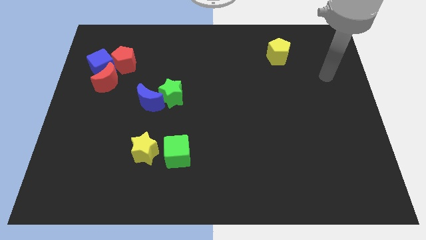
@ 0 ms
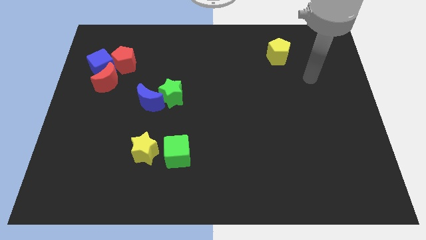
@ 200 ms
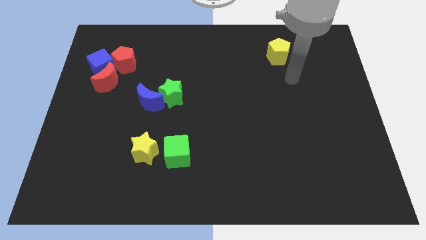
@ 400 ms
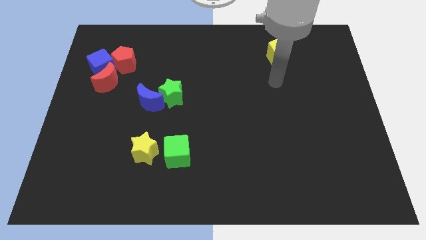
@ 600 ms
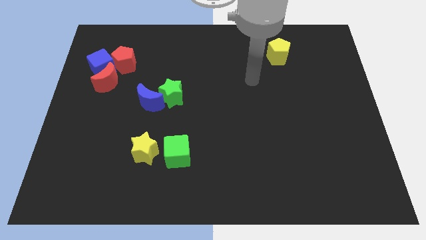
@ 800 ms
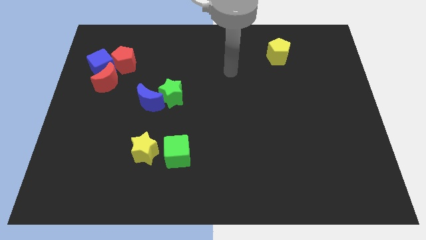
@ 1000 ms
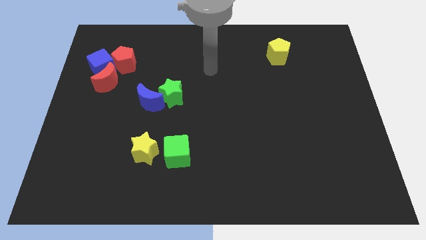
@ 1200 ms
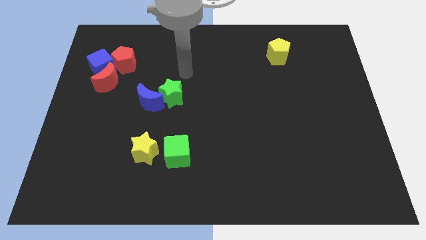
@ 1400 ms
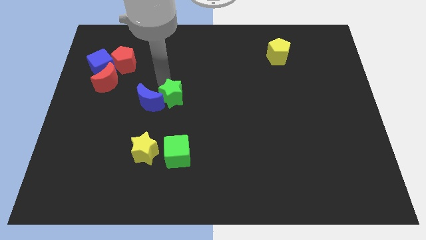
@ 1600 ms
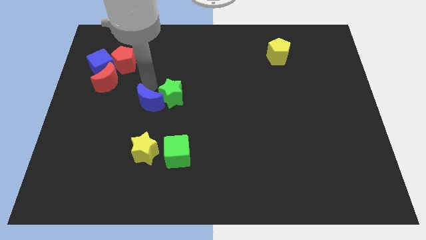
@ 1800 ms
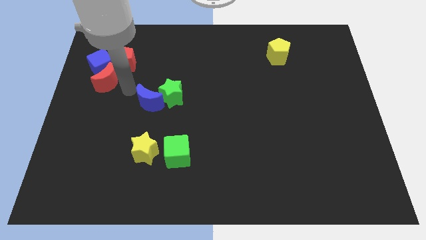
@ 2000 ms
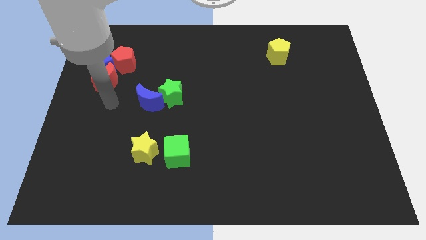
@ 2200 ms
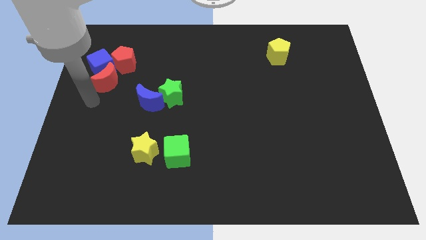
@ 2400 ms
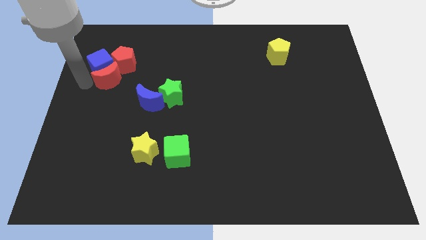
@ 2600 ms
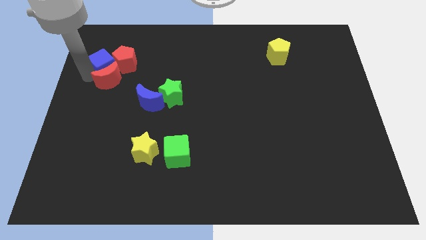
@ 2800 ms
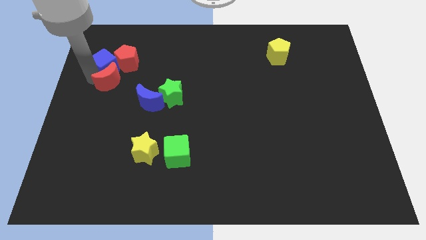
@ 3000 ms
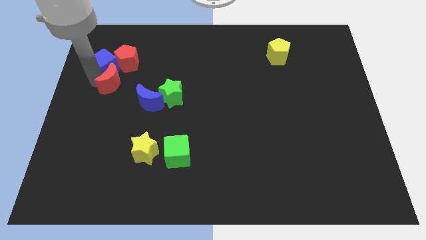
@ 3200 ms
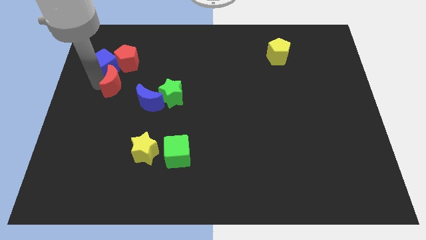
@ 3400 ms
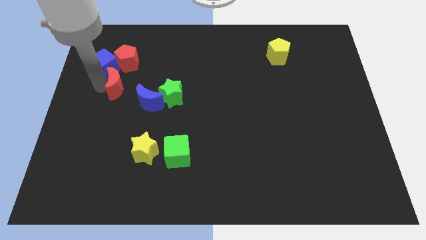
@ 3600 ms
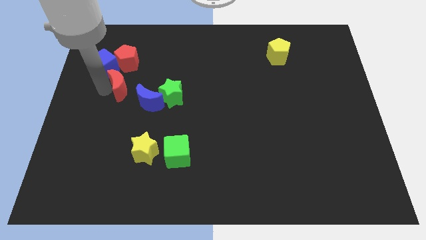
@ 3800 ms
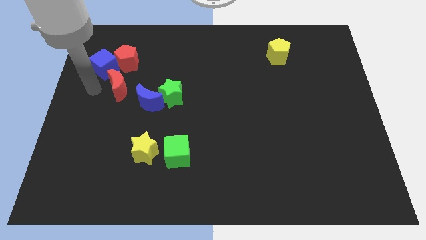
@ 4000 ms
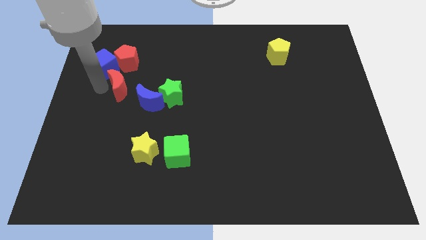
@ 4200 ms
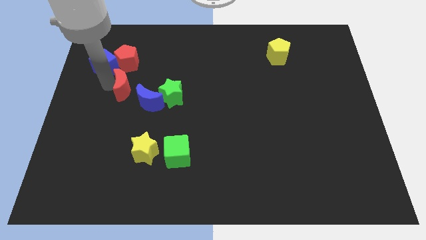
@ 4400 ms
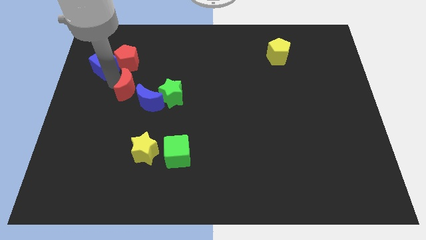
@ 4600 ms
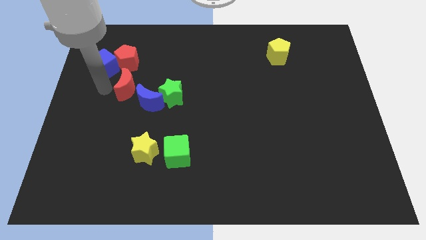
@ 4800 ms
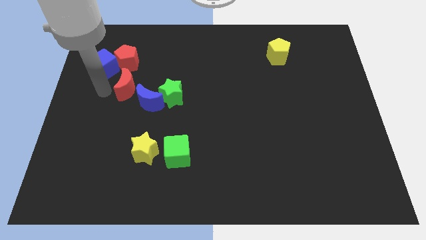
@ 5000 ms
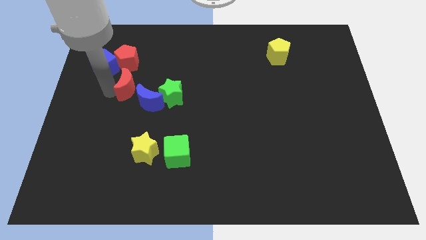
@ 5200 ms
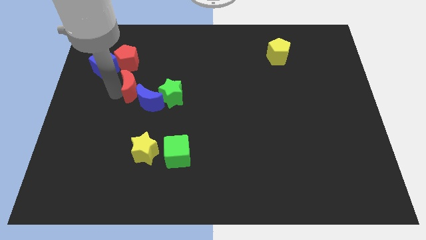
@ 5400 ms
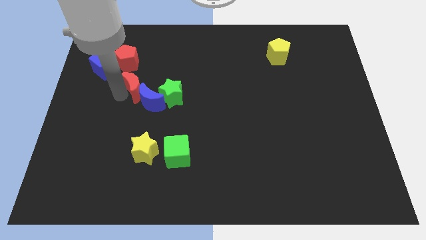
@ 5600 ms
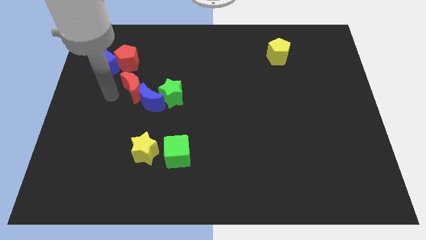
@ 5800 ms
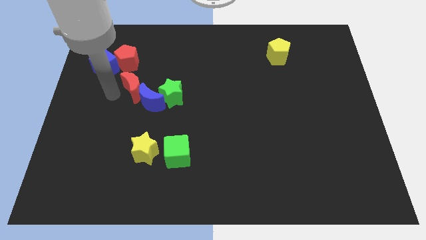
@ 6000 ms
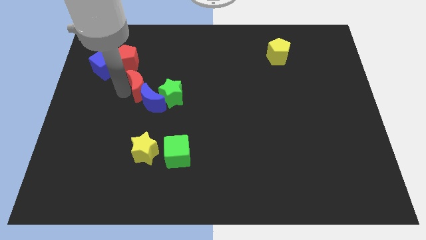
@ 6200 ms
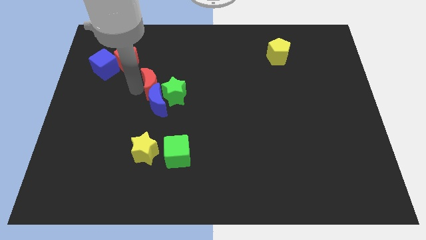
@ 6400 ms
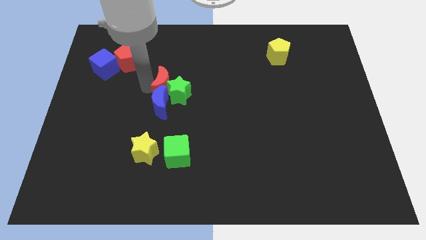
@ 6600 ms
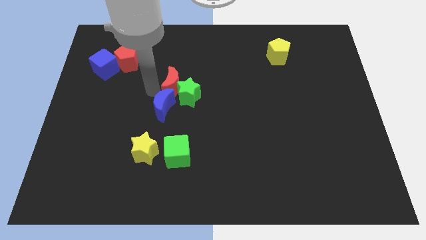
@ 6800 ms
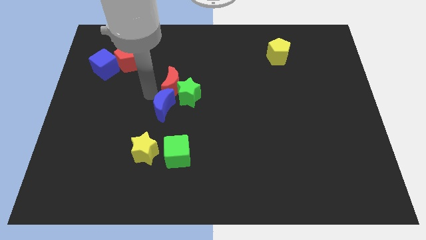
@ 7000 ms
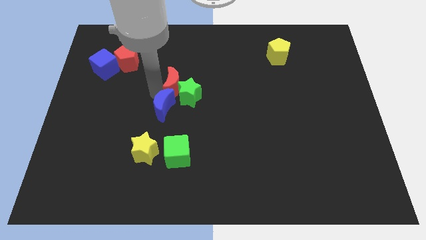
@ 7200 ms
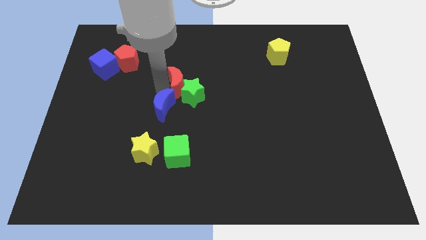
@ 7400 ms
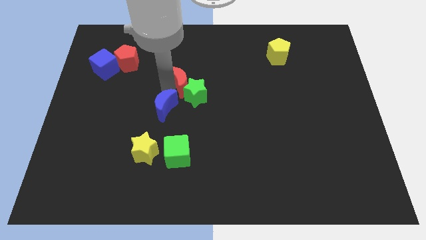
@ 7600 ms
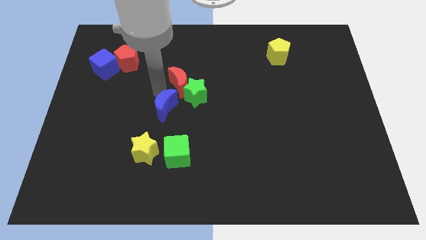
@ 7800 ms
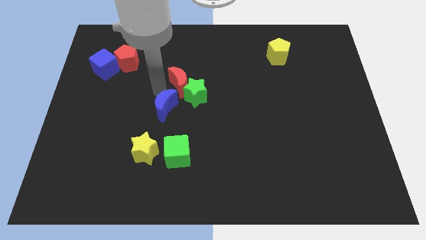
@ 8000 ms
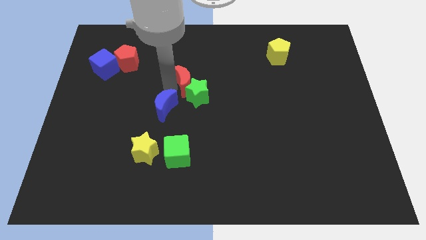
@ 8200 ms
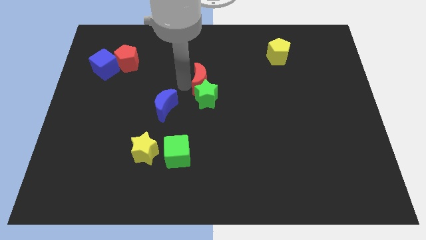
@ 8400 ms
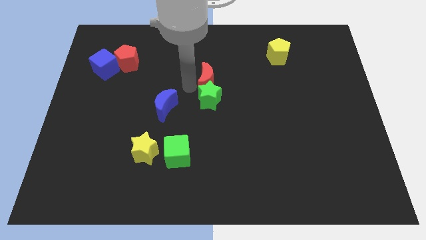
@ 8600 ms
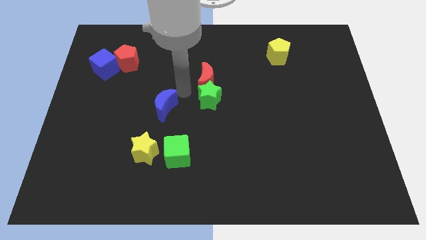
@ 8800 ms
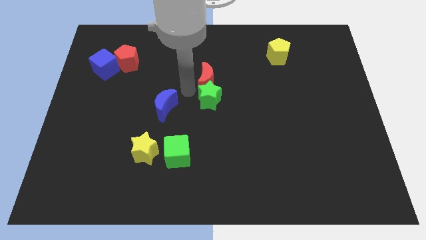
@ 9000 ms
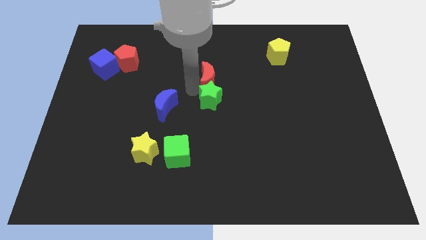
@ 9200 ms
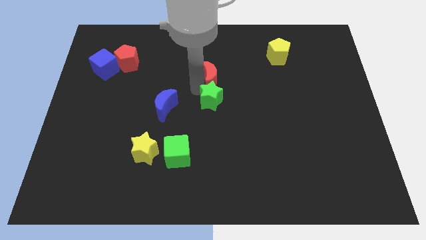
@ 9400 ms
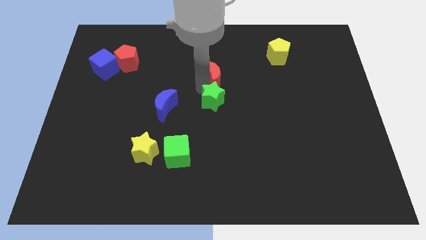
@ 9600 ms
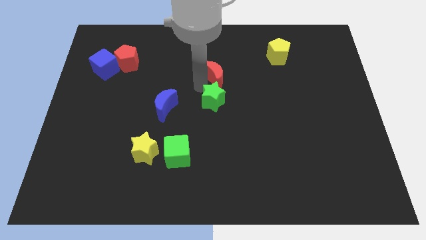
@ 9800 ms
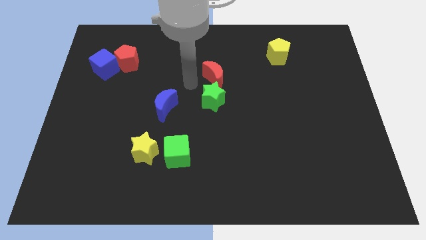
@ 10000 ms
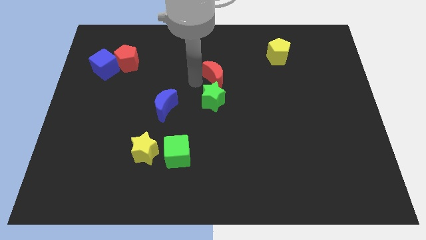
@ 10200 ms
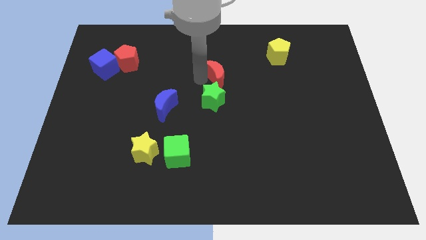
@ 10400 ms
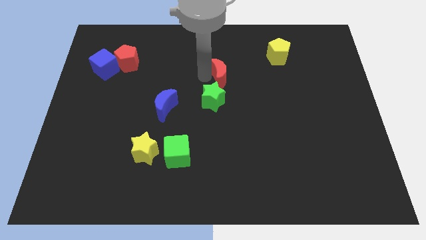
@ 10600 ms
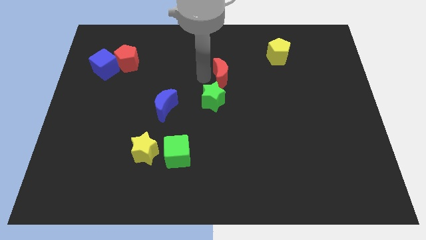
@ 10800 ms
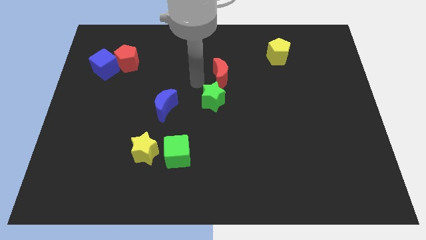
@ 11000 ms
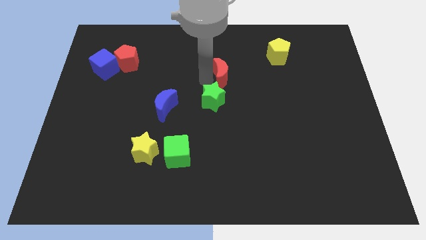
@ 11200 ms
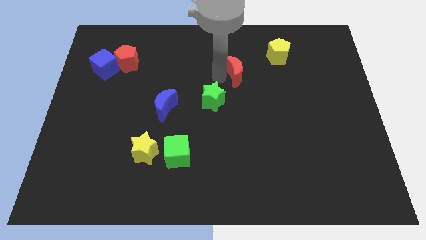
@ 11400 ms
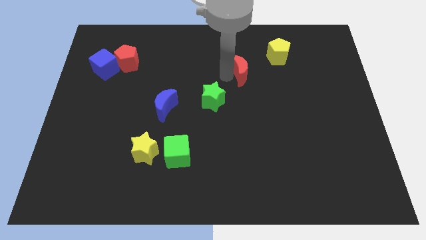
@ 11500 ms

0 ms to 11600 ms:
move the red moon diagonally down and to the left of the yellow pentagon

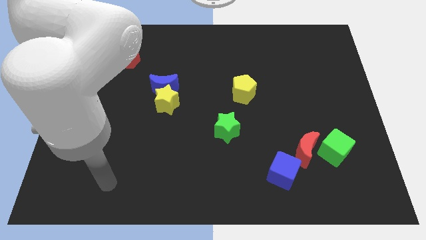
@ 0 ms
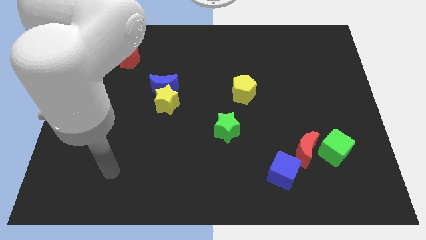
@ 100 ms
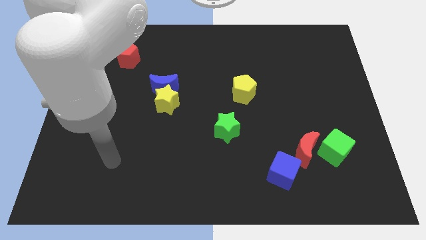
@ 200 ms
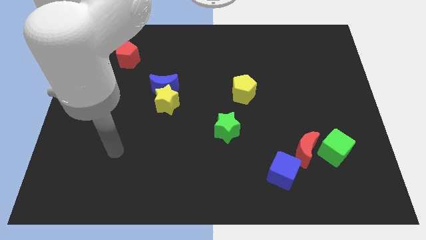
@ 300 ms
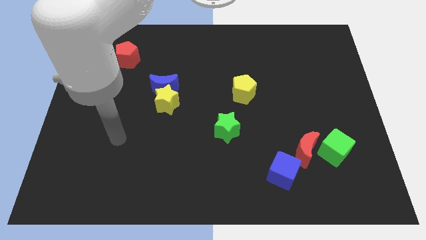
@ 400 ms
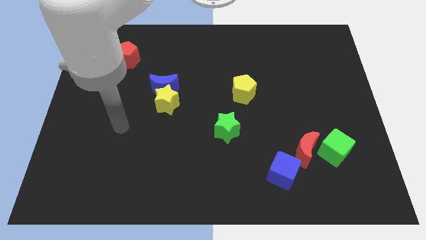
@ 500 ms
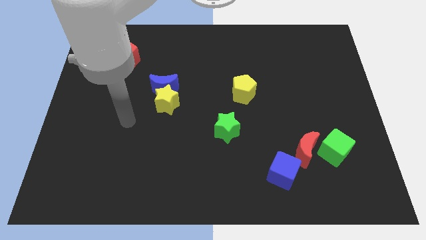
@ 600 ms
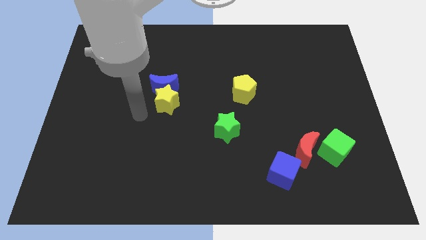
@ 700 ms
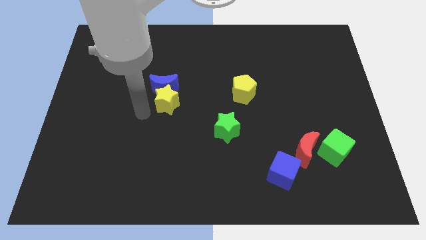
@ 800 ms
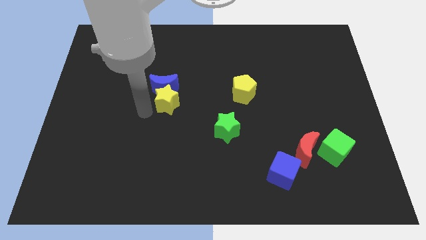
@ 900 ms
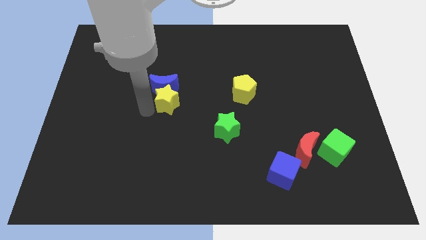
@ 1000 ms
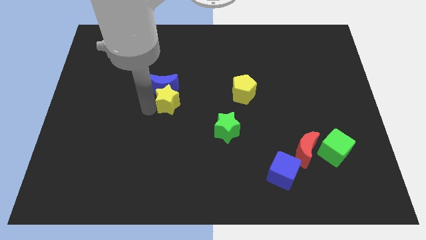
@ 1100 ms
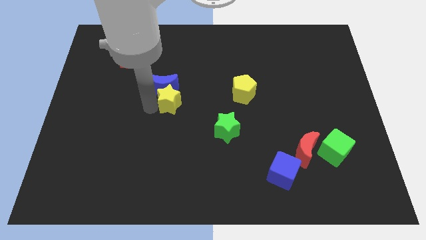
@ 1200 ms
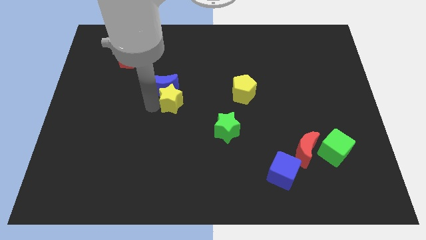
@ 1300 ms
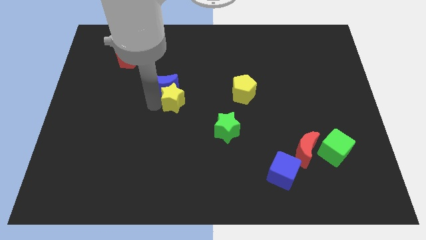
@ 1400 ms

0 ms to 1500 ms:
slide the yellow star to the right side of the blue moon
